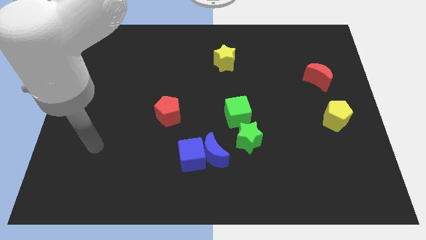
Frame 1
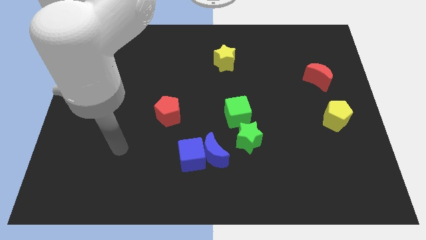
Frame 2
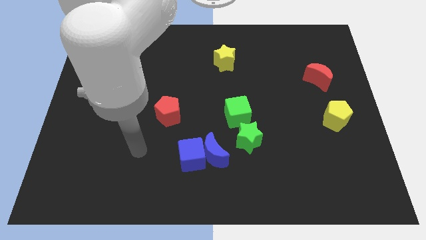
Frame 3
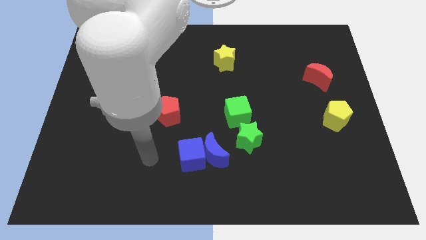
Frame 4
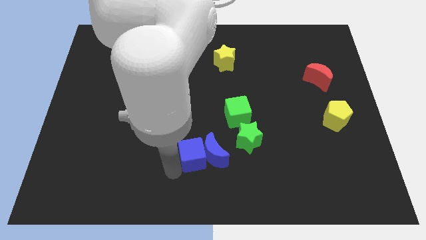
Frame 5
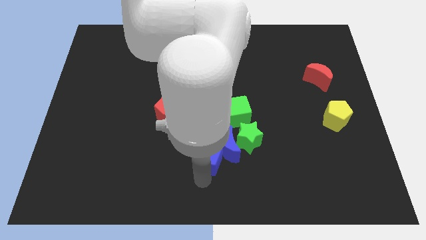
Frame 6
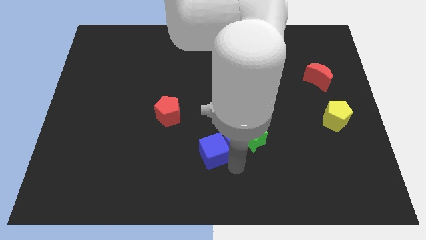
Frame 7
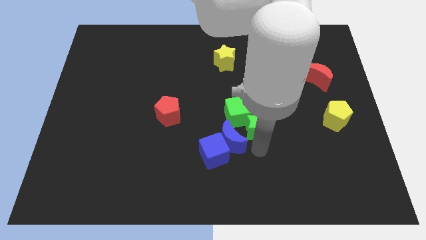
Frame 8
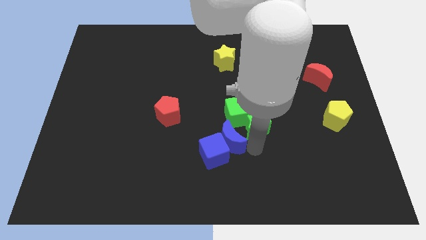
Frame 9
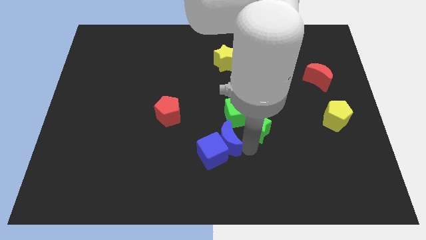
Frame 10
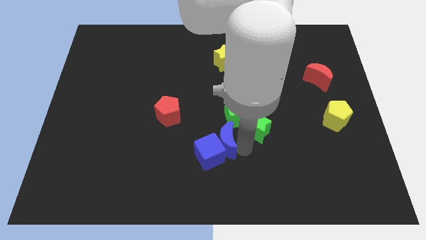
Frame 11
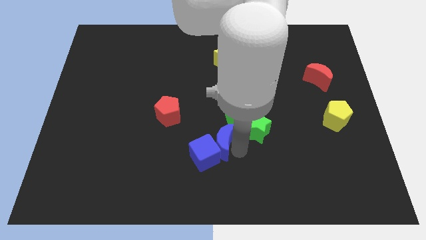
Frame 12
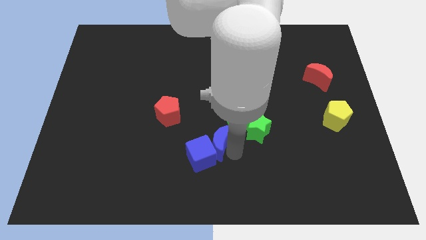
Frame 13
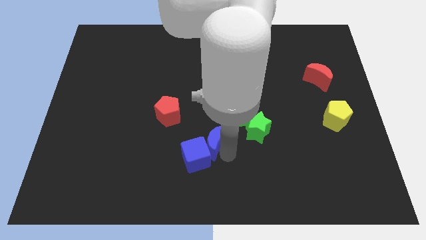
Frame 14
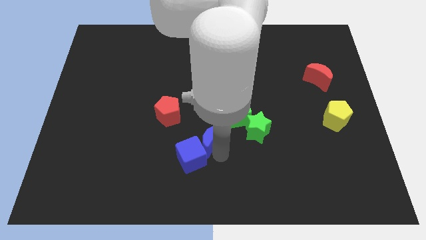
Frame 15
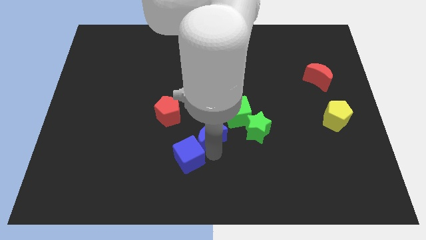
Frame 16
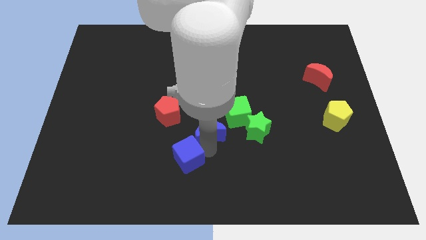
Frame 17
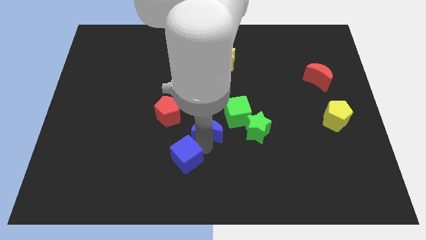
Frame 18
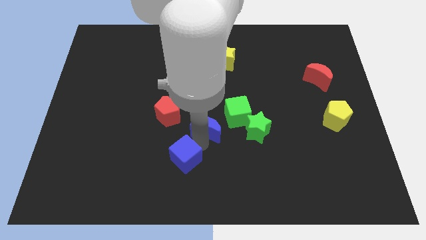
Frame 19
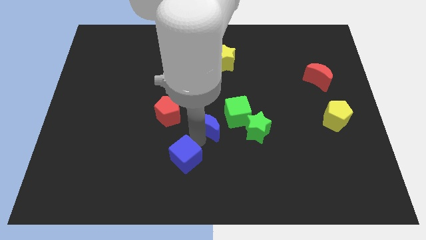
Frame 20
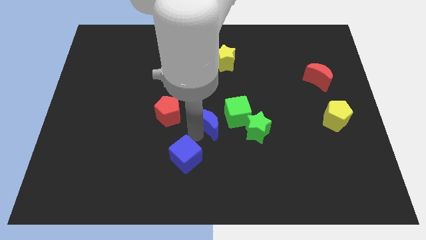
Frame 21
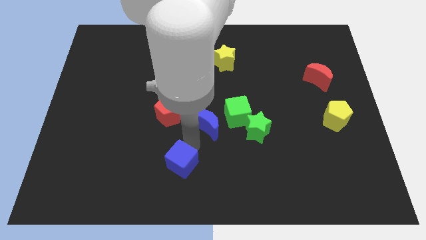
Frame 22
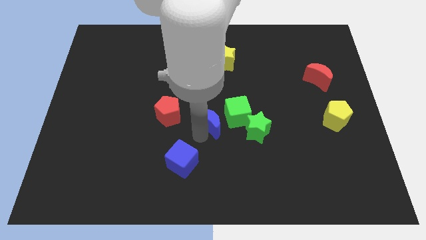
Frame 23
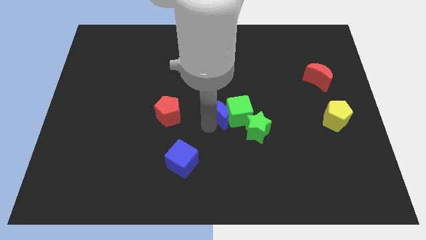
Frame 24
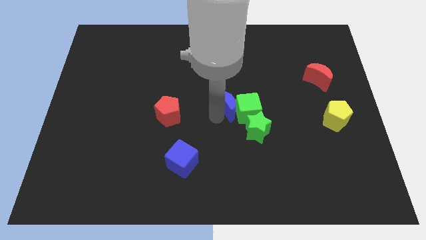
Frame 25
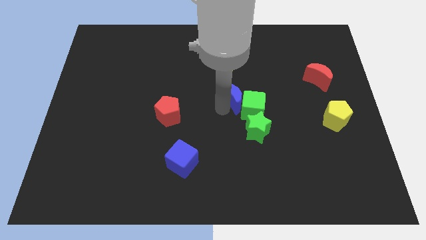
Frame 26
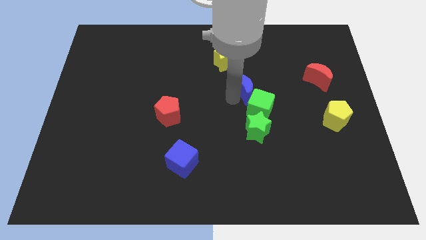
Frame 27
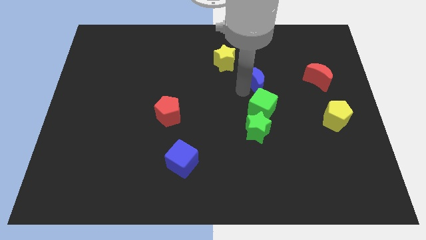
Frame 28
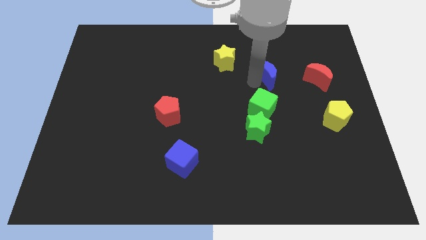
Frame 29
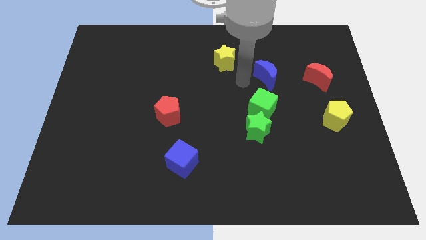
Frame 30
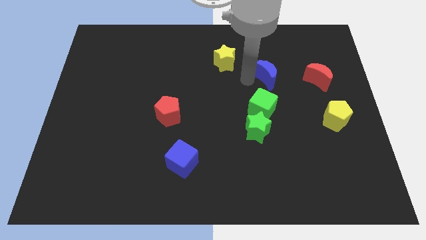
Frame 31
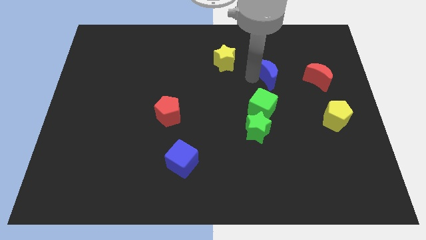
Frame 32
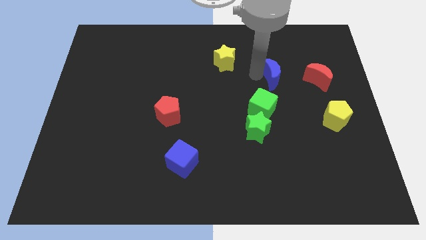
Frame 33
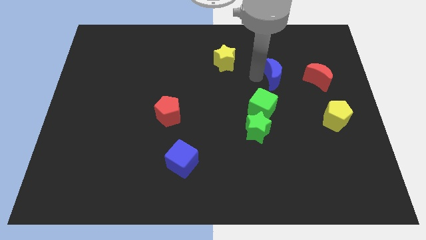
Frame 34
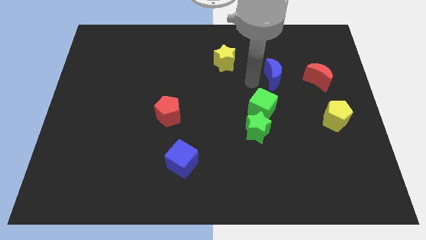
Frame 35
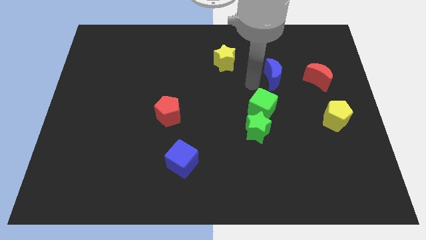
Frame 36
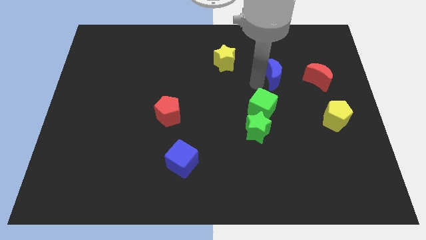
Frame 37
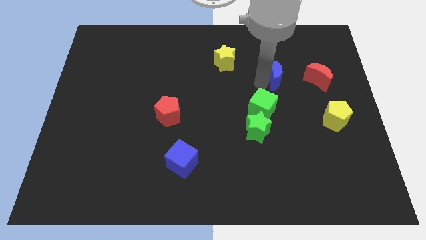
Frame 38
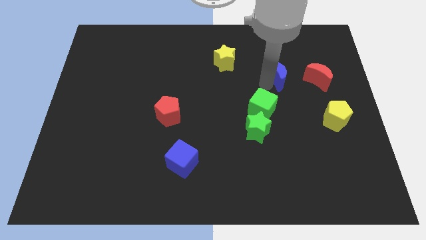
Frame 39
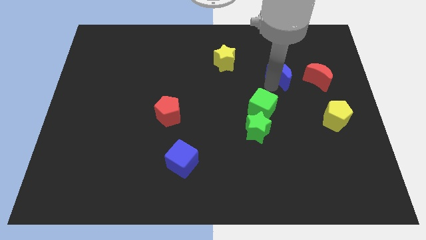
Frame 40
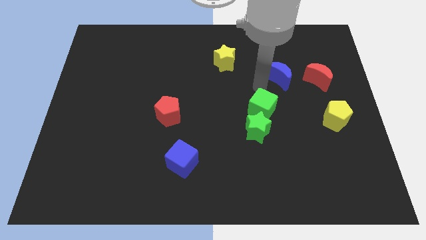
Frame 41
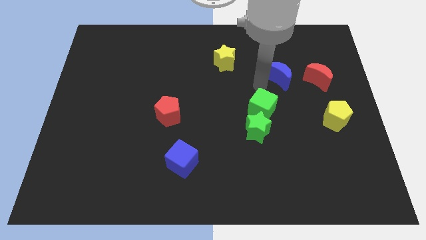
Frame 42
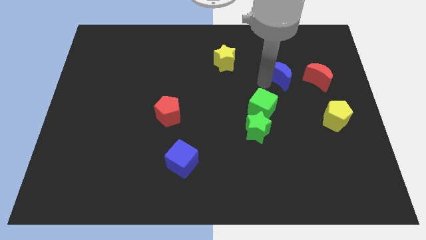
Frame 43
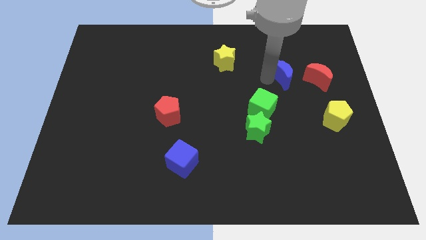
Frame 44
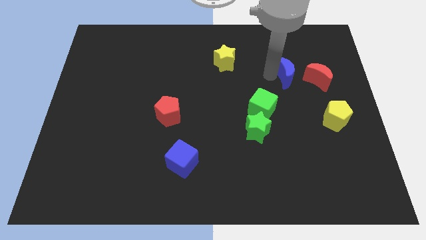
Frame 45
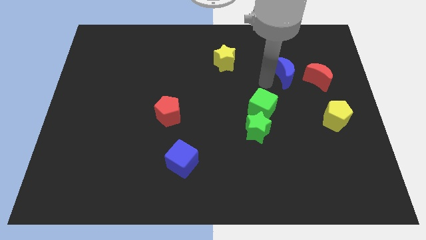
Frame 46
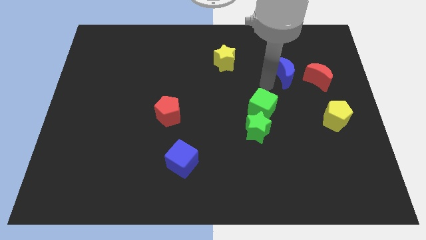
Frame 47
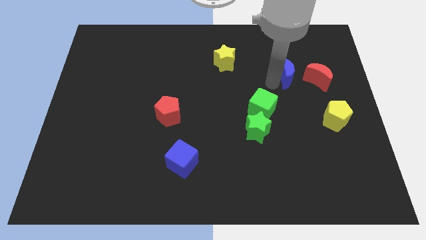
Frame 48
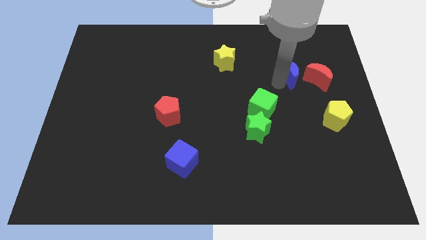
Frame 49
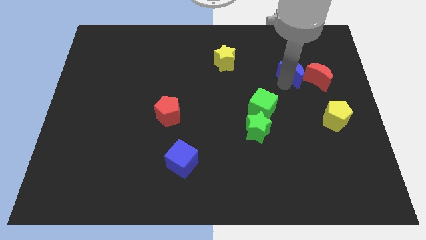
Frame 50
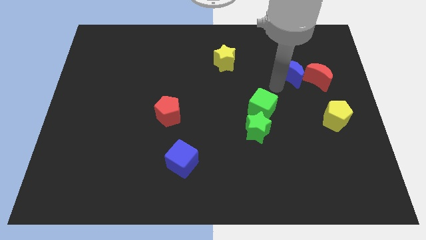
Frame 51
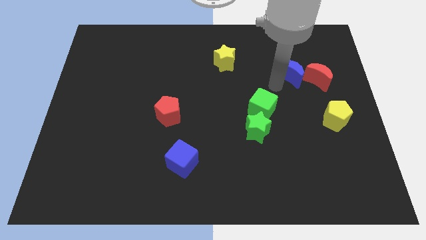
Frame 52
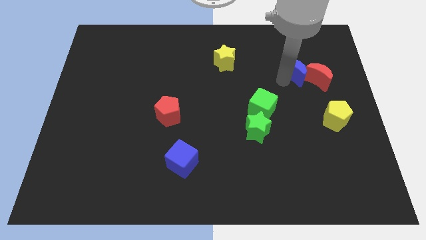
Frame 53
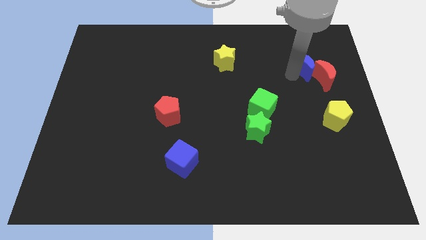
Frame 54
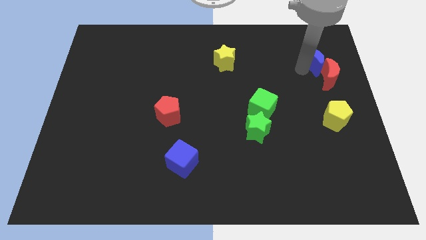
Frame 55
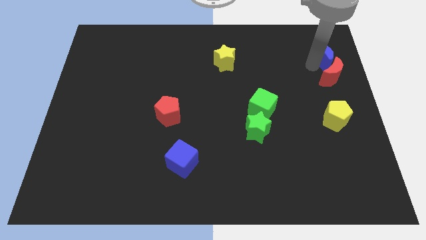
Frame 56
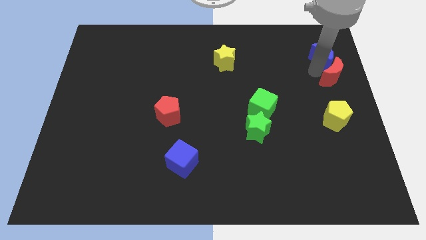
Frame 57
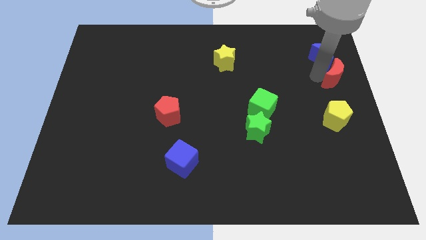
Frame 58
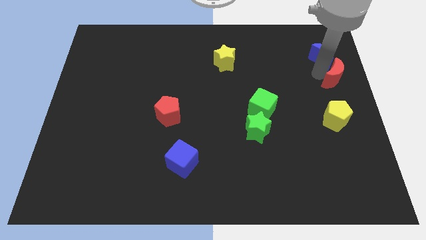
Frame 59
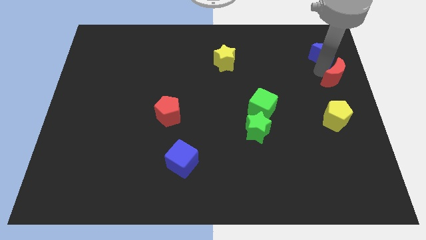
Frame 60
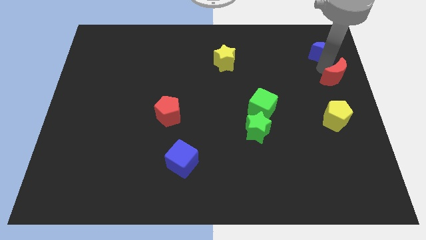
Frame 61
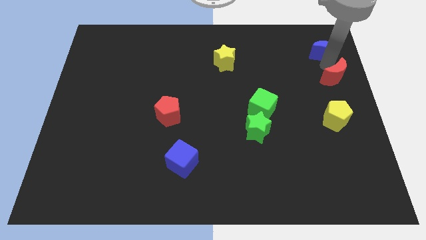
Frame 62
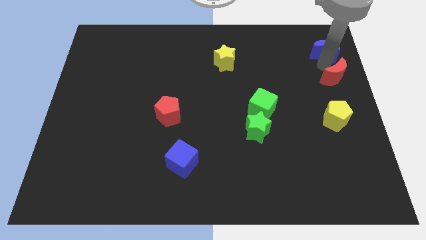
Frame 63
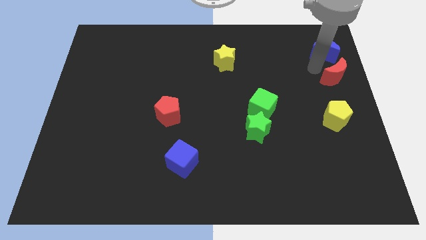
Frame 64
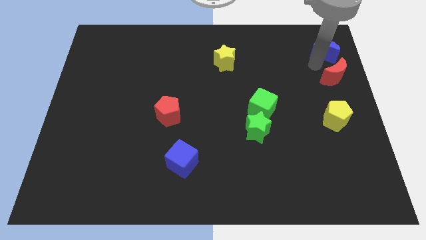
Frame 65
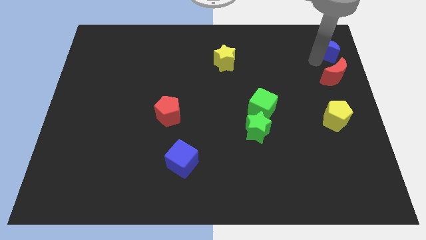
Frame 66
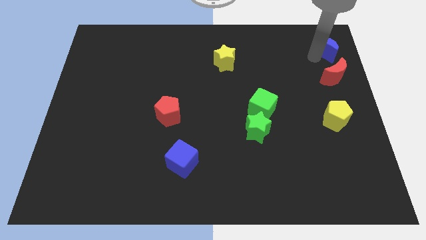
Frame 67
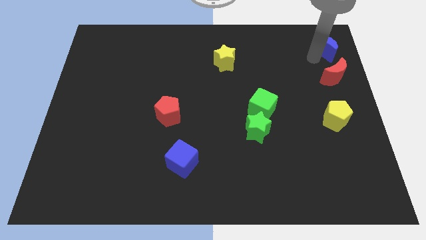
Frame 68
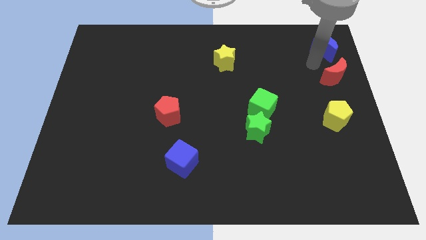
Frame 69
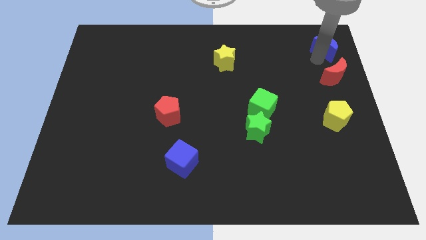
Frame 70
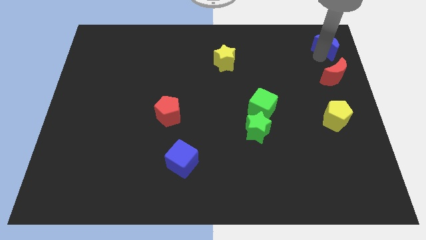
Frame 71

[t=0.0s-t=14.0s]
move the blue moon to the upper right corner
